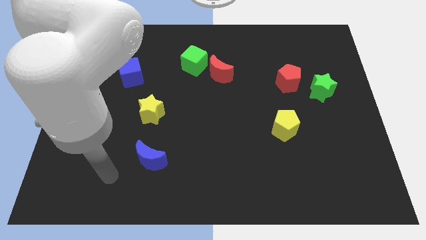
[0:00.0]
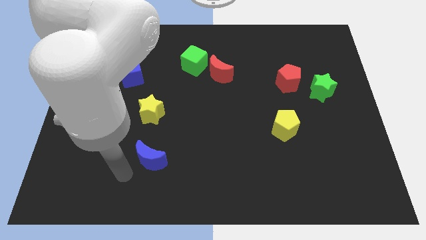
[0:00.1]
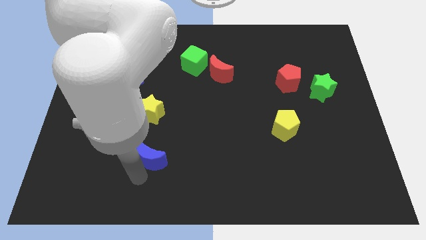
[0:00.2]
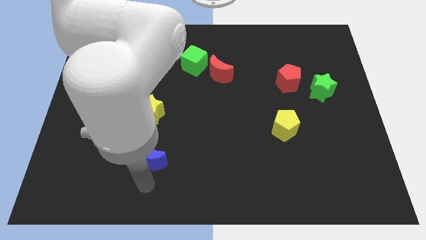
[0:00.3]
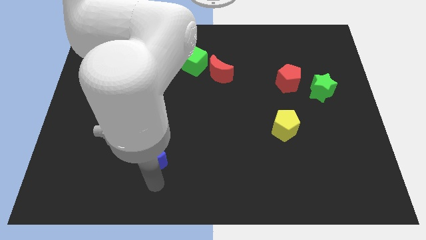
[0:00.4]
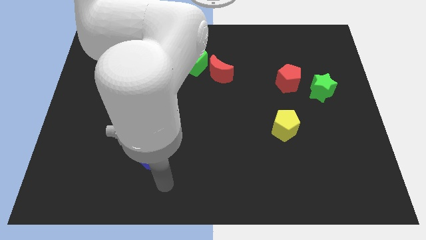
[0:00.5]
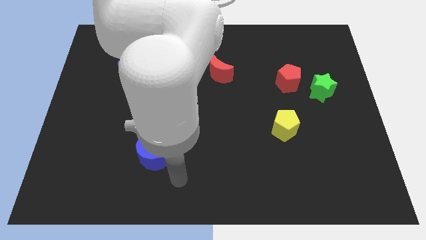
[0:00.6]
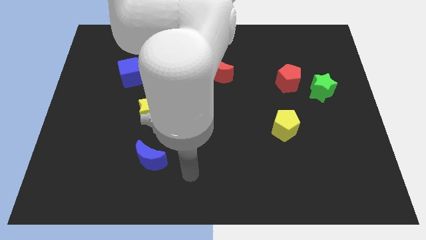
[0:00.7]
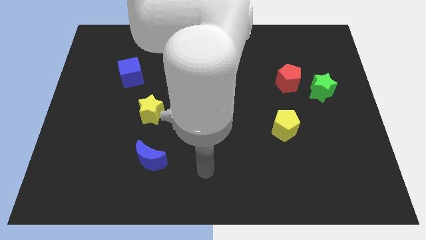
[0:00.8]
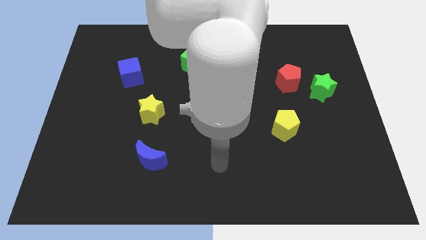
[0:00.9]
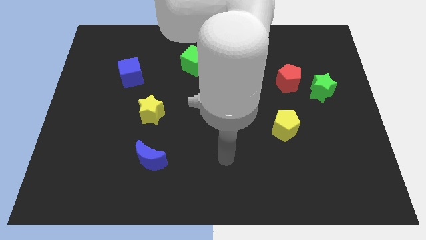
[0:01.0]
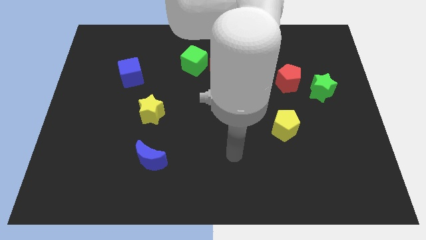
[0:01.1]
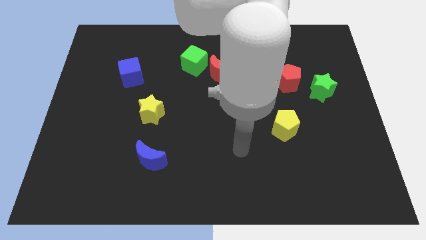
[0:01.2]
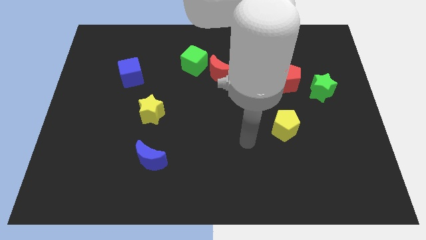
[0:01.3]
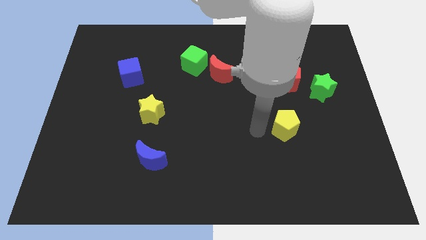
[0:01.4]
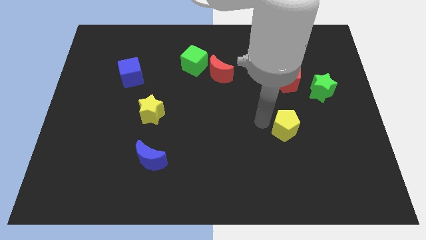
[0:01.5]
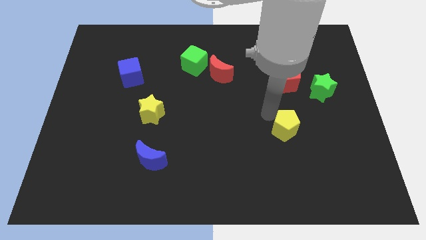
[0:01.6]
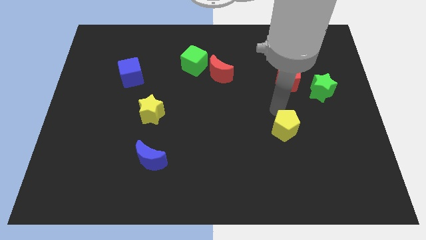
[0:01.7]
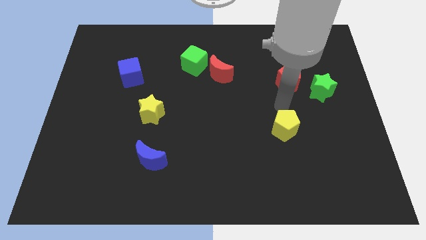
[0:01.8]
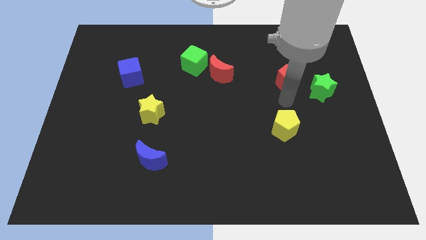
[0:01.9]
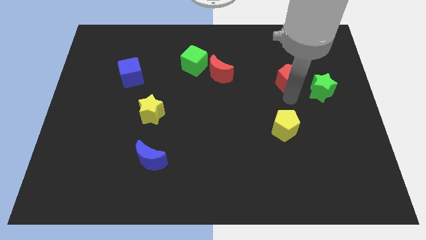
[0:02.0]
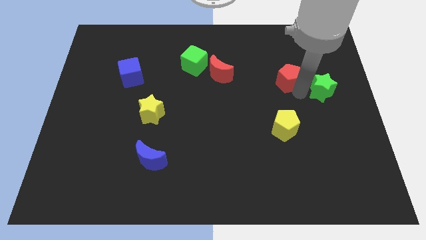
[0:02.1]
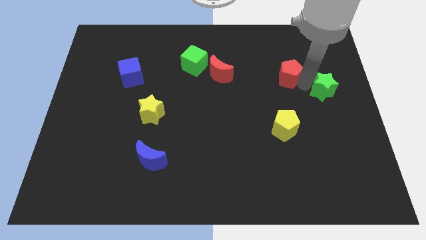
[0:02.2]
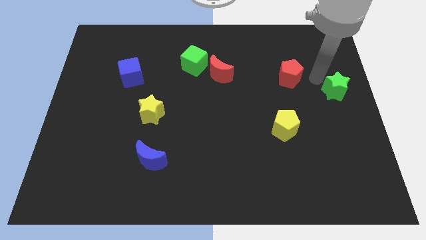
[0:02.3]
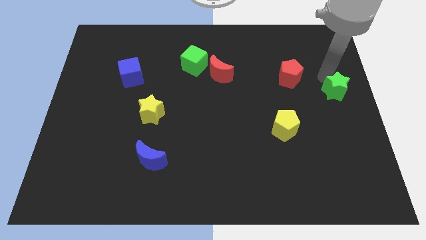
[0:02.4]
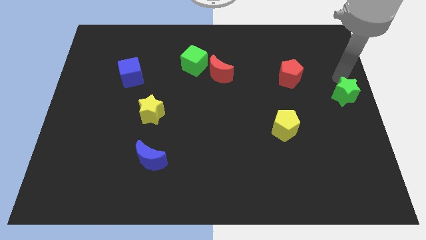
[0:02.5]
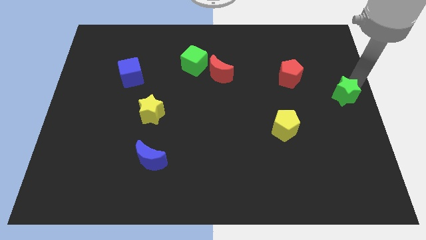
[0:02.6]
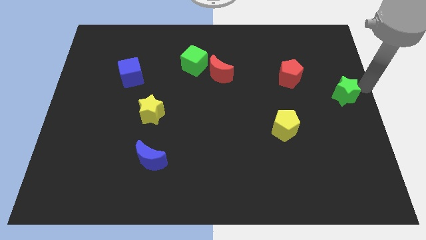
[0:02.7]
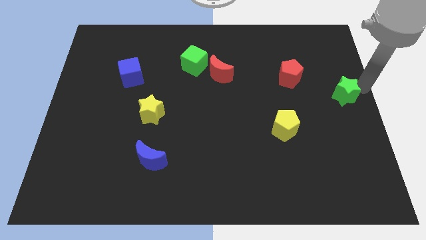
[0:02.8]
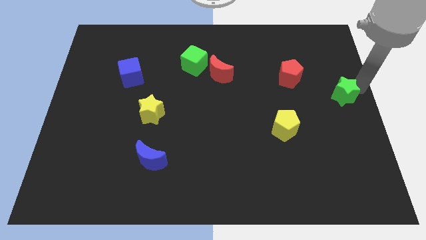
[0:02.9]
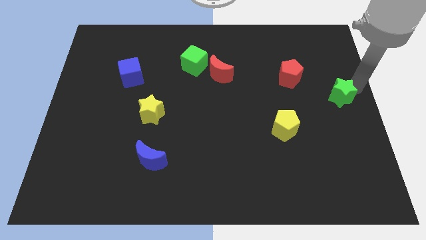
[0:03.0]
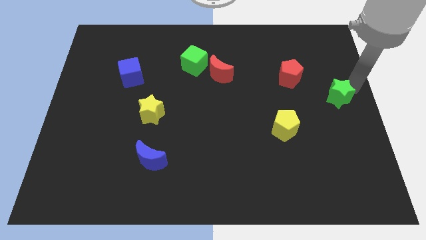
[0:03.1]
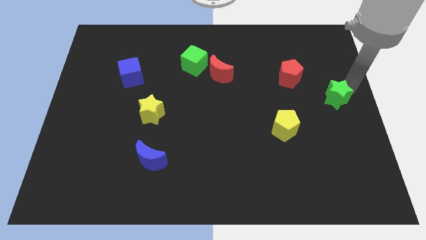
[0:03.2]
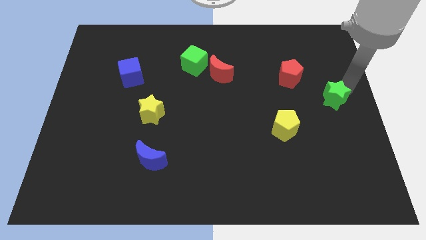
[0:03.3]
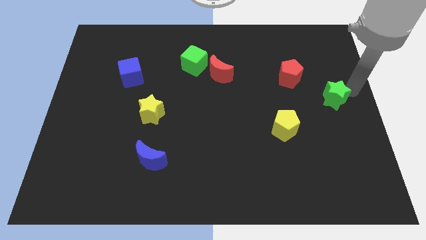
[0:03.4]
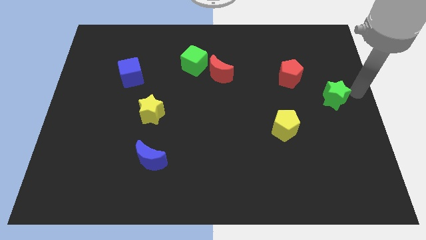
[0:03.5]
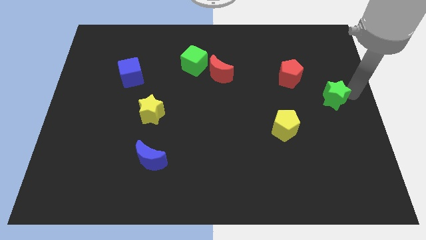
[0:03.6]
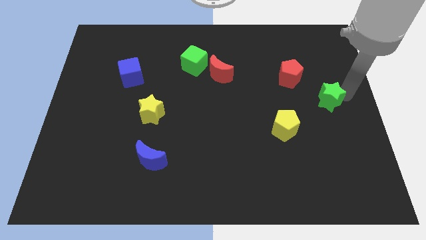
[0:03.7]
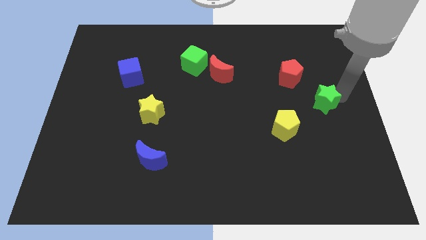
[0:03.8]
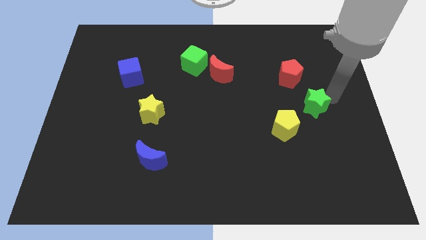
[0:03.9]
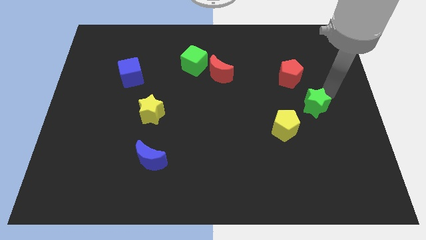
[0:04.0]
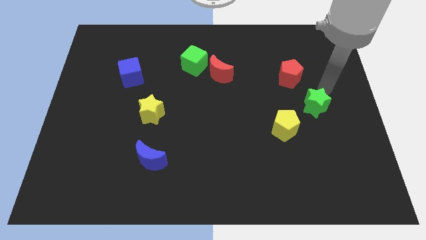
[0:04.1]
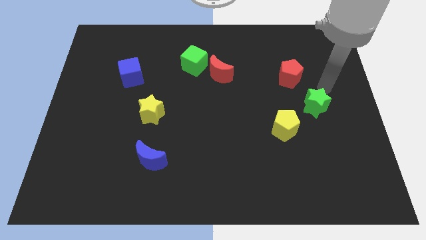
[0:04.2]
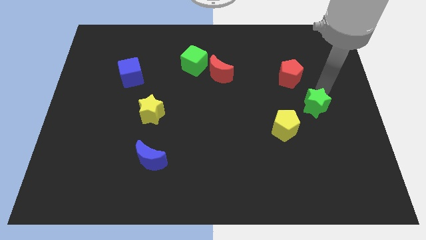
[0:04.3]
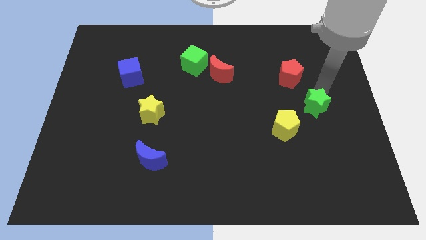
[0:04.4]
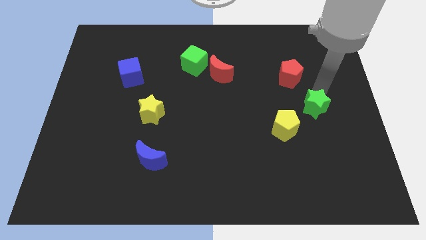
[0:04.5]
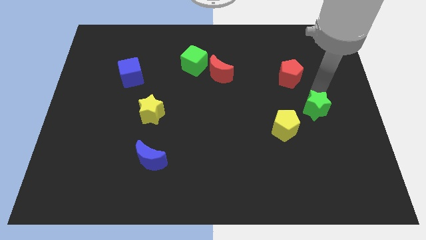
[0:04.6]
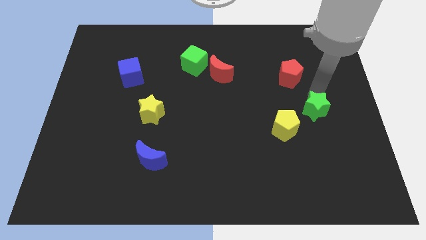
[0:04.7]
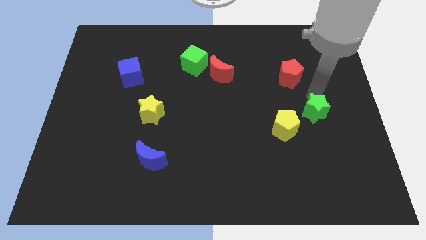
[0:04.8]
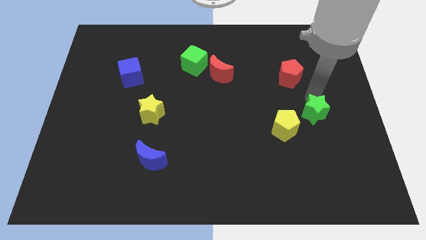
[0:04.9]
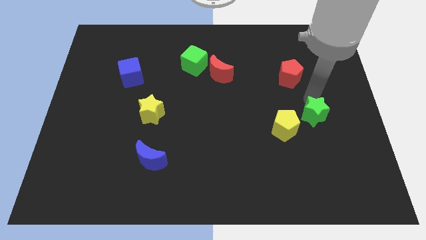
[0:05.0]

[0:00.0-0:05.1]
slide the green star diagonally downwards and to the left somewhat

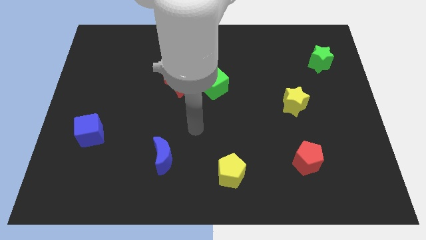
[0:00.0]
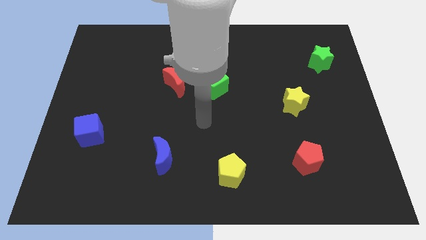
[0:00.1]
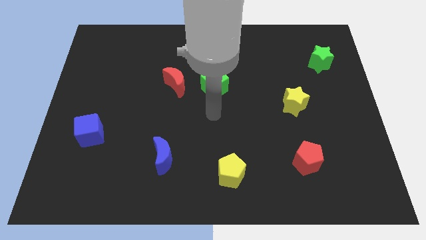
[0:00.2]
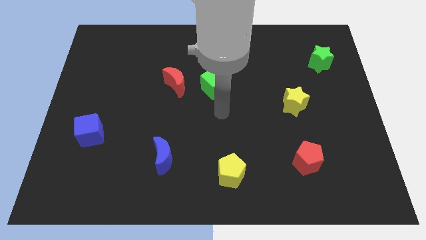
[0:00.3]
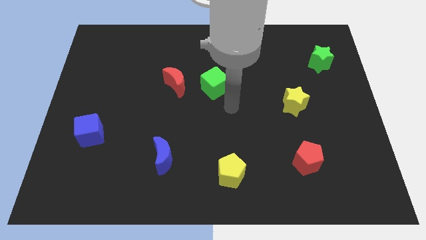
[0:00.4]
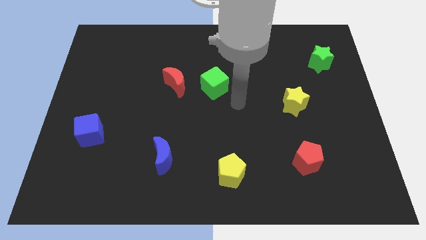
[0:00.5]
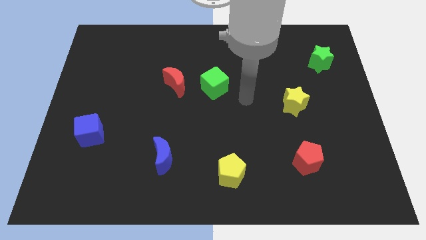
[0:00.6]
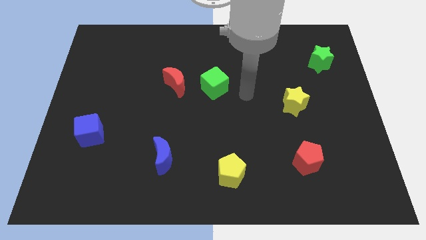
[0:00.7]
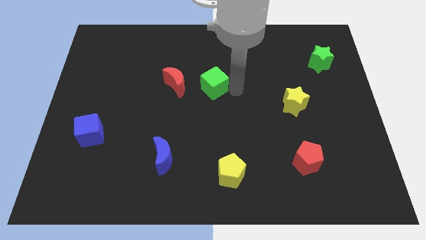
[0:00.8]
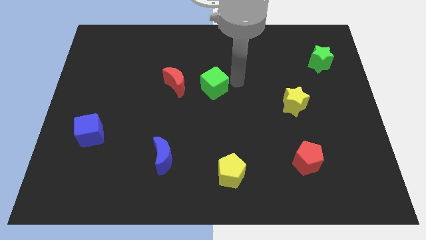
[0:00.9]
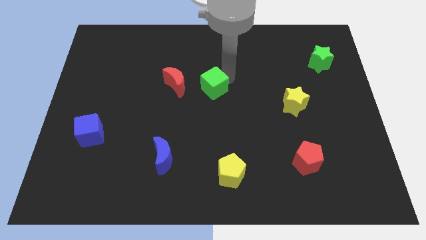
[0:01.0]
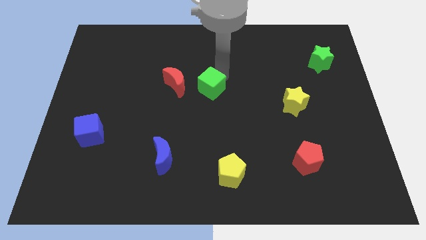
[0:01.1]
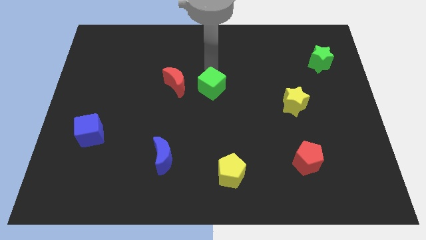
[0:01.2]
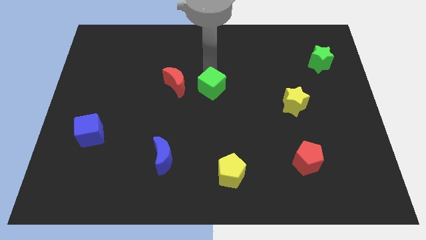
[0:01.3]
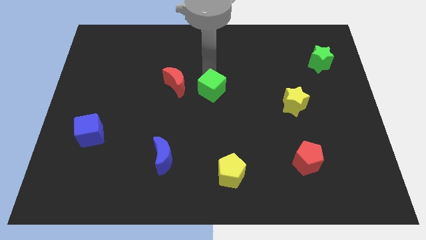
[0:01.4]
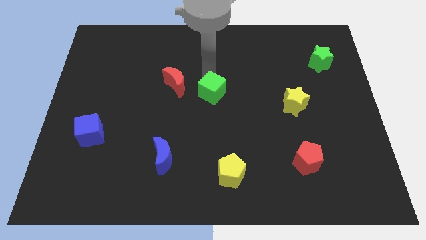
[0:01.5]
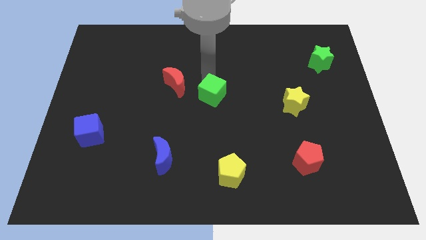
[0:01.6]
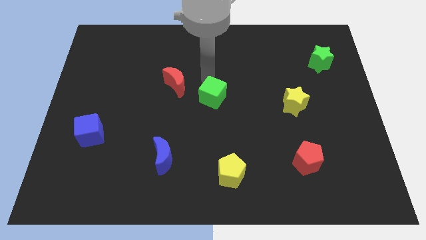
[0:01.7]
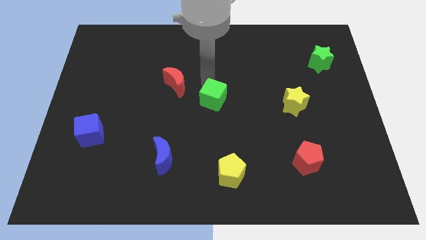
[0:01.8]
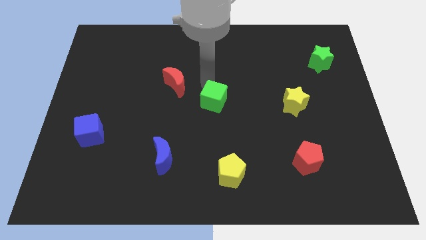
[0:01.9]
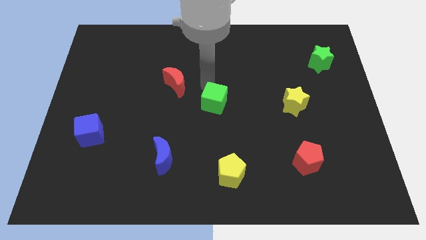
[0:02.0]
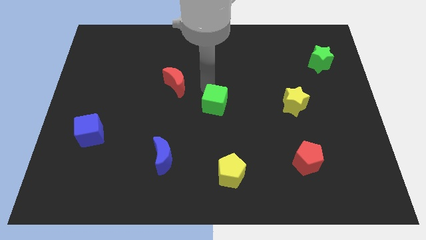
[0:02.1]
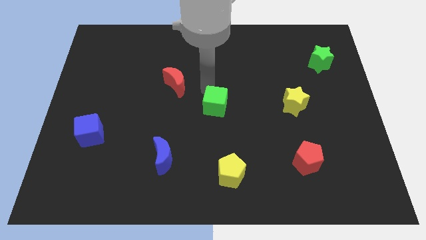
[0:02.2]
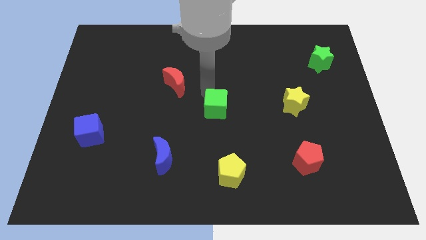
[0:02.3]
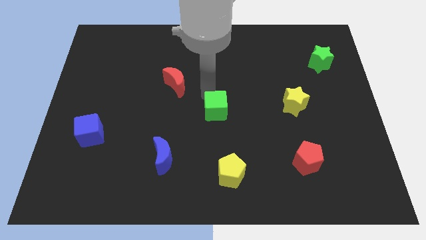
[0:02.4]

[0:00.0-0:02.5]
slightly slide the green cube down

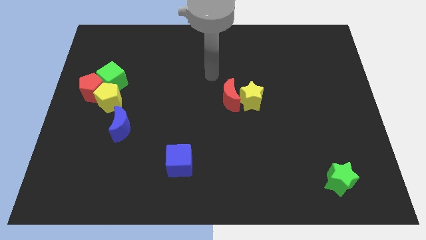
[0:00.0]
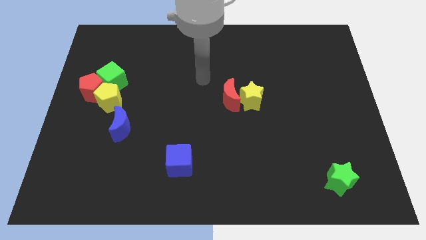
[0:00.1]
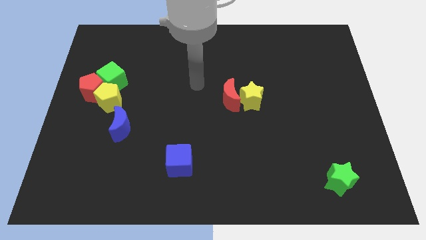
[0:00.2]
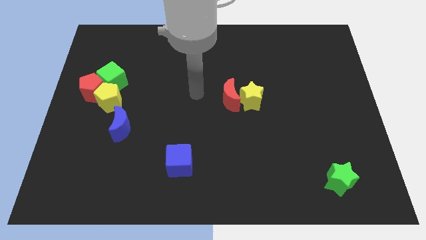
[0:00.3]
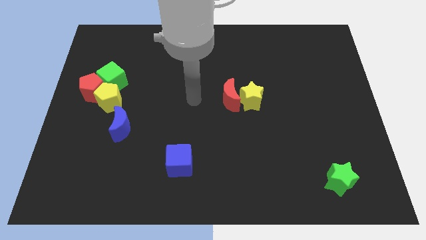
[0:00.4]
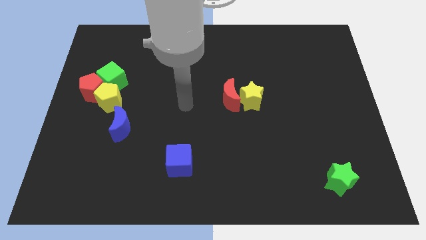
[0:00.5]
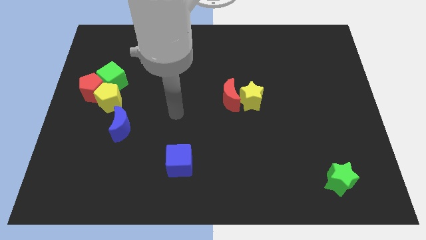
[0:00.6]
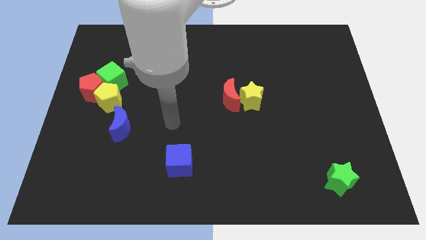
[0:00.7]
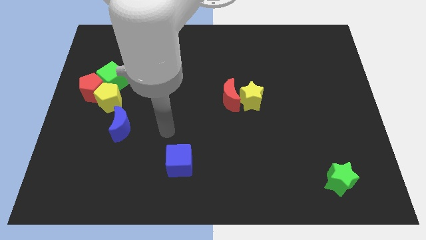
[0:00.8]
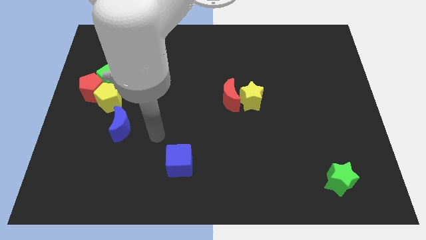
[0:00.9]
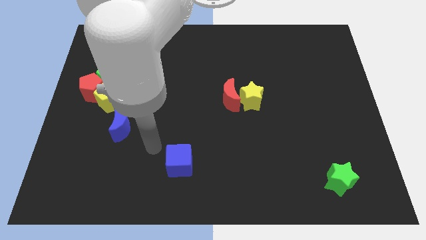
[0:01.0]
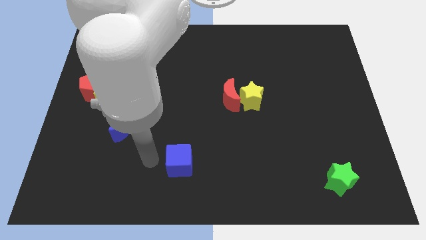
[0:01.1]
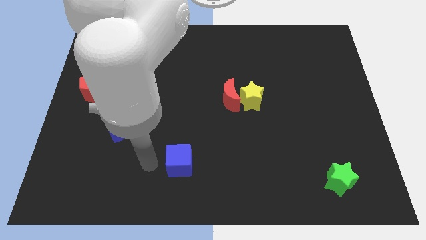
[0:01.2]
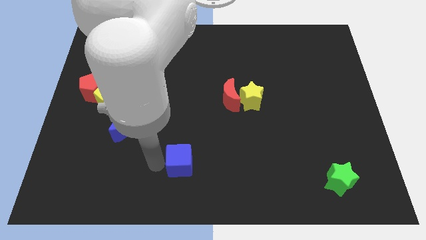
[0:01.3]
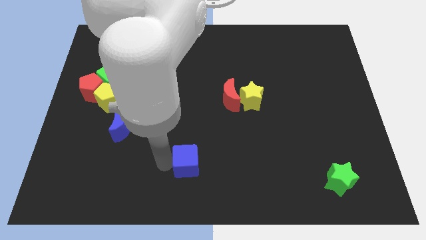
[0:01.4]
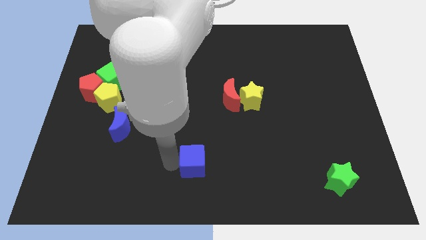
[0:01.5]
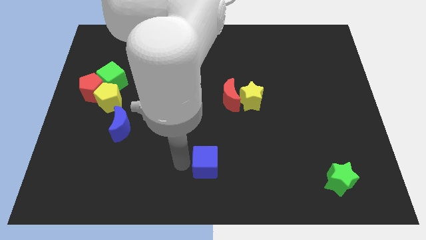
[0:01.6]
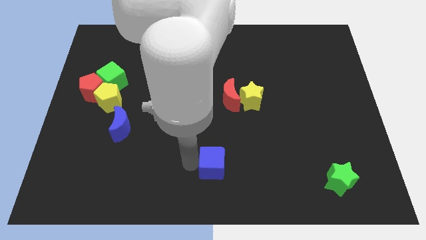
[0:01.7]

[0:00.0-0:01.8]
slightly push the blue cube to the right
